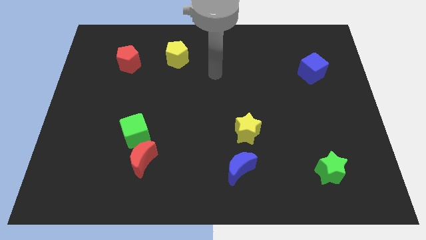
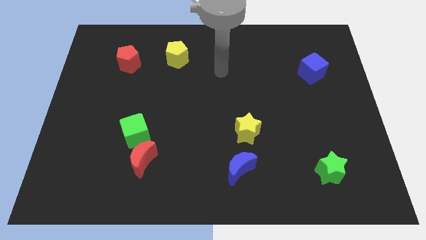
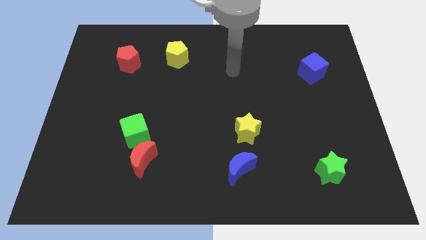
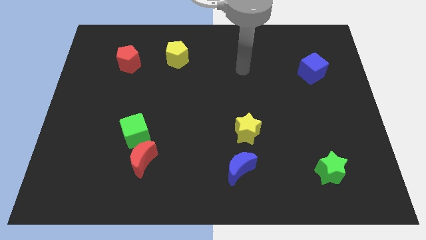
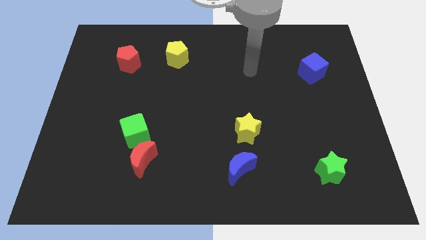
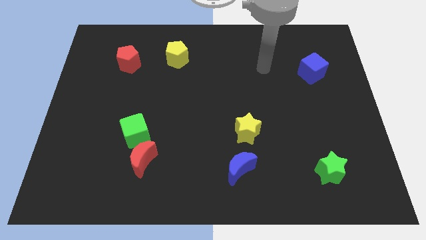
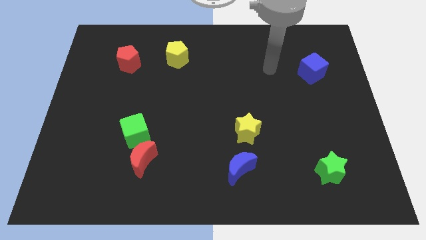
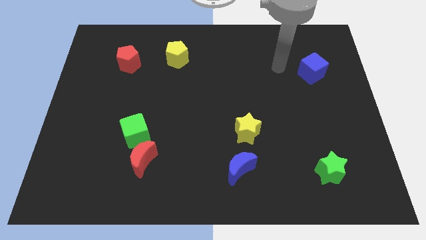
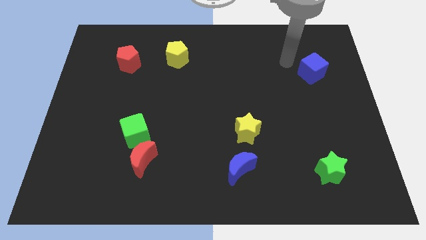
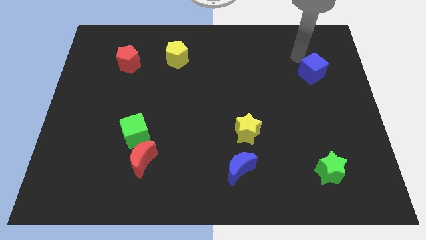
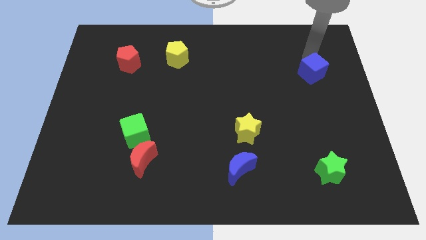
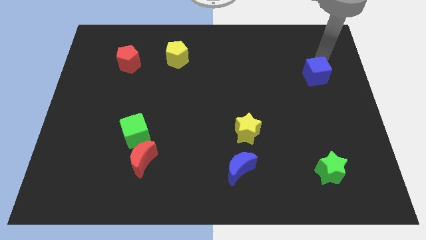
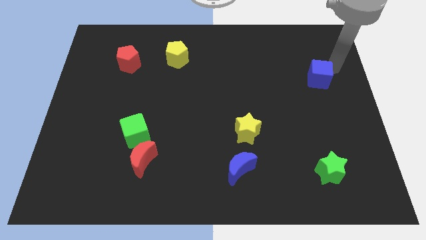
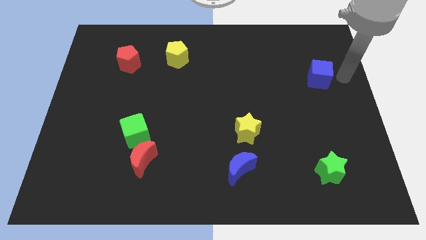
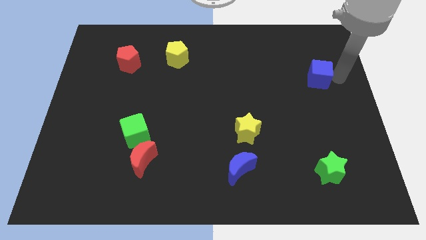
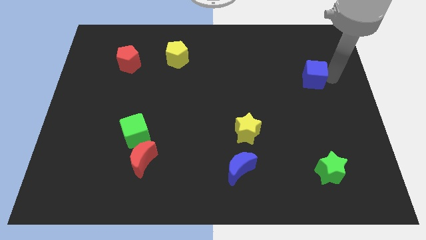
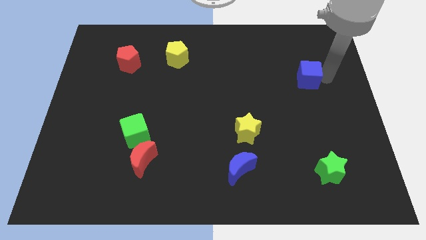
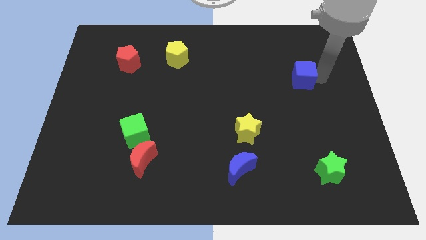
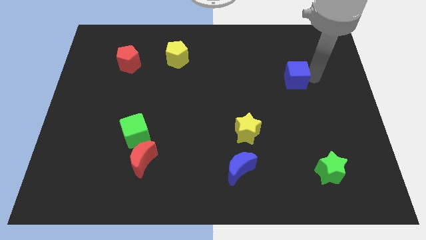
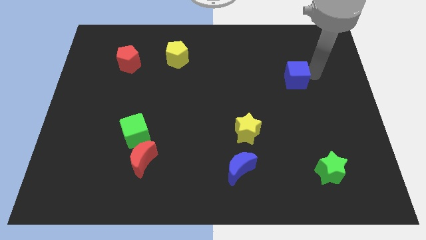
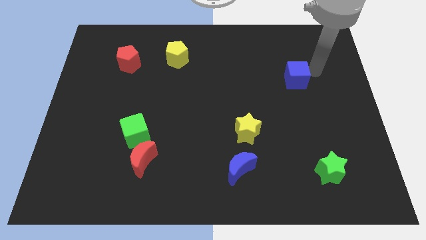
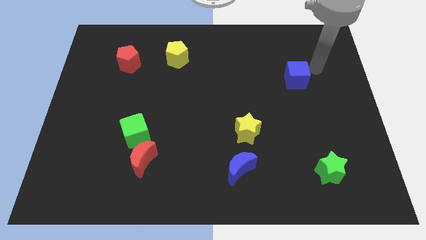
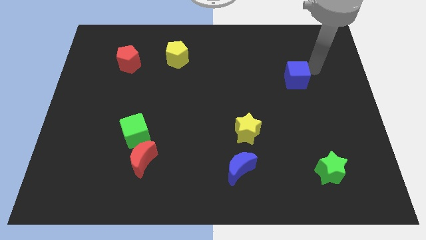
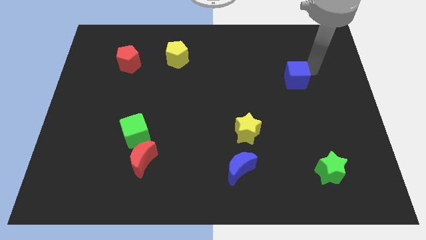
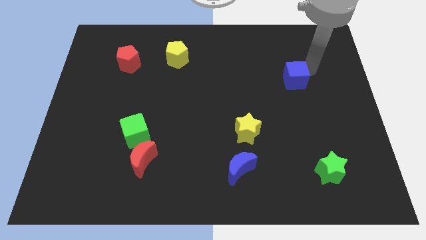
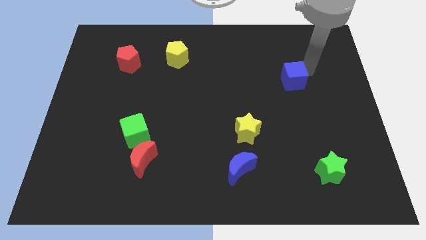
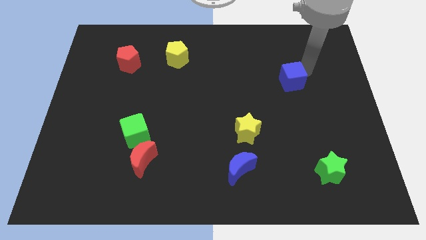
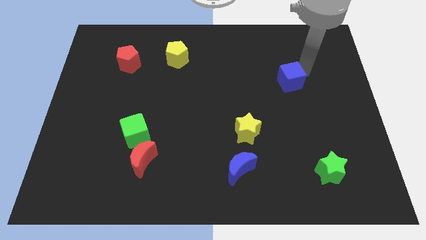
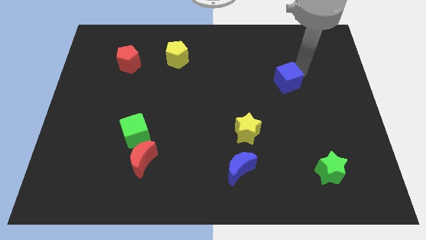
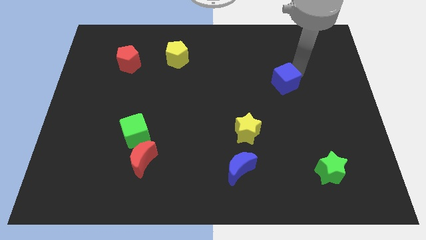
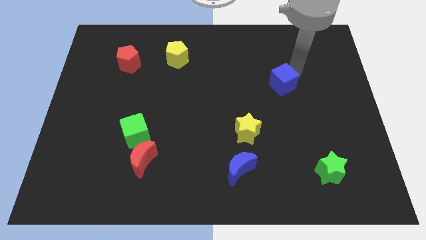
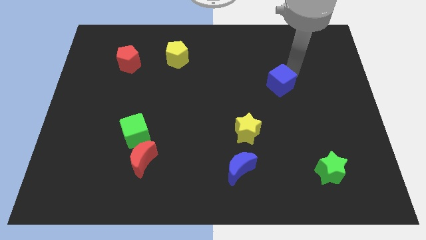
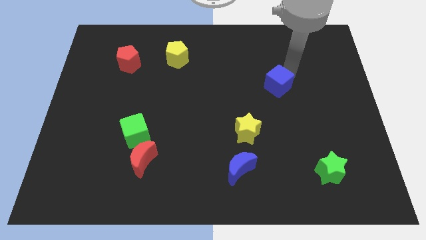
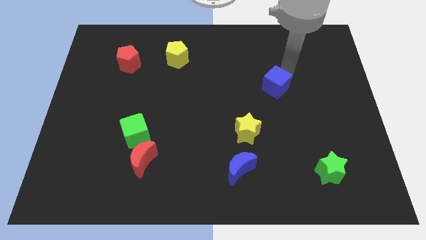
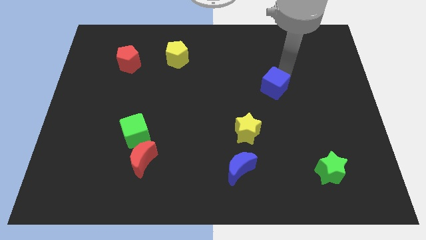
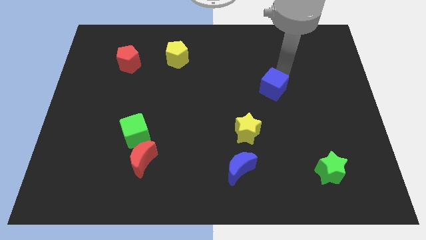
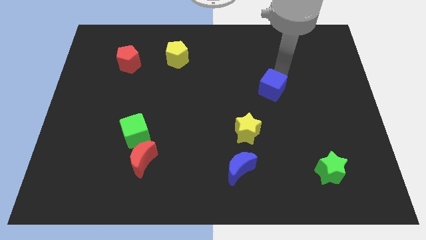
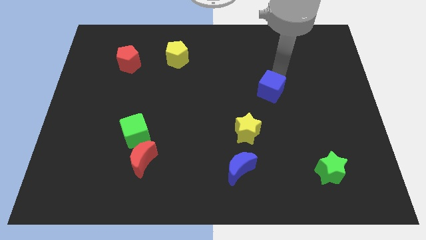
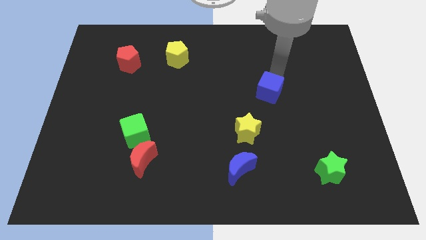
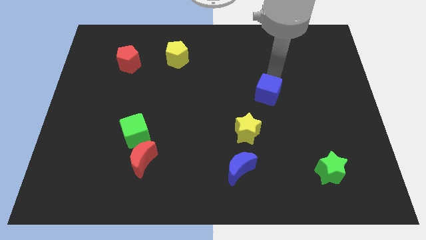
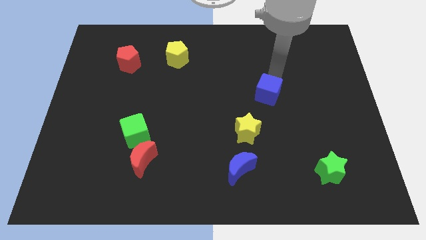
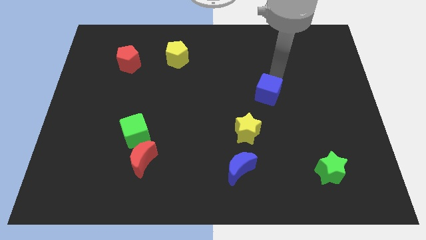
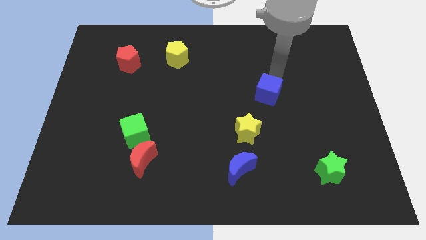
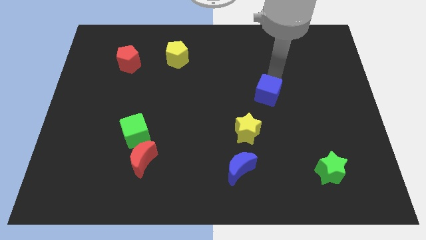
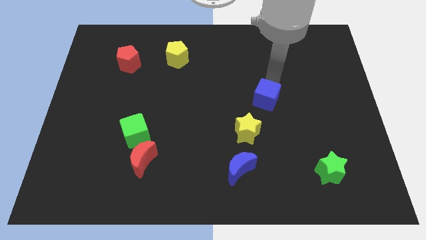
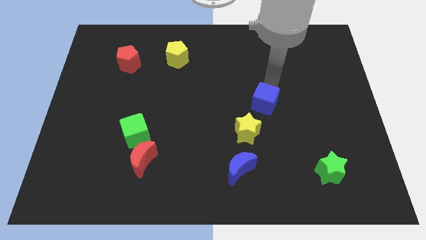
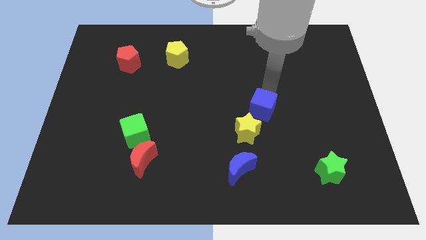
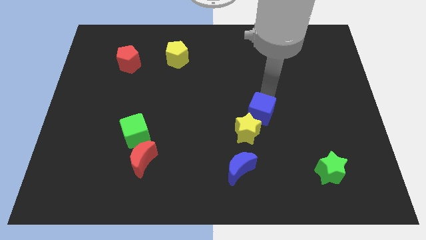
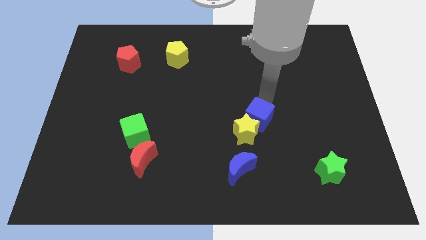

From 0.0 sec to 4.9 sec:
put the blue cube towards the yellow star

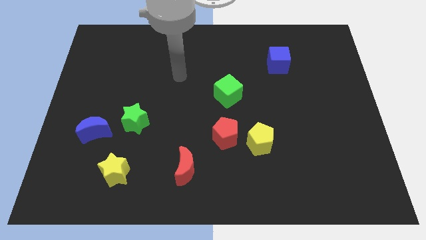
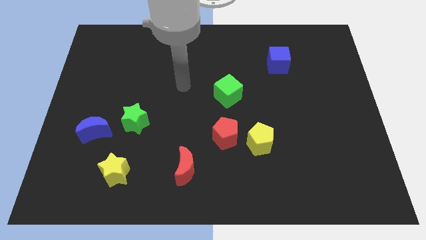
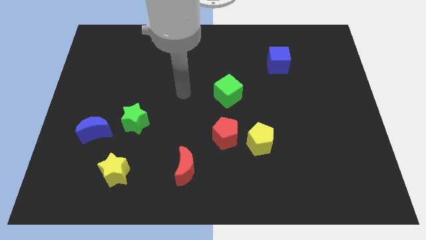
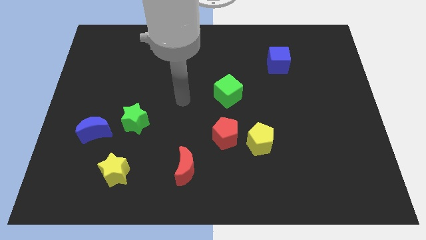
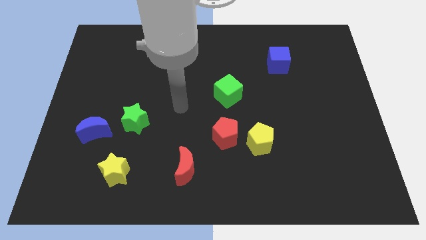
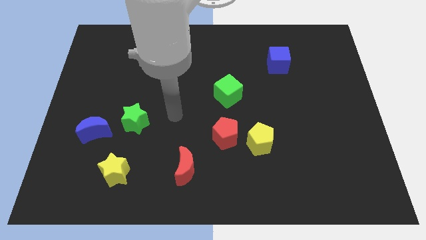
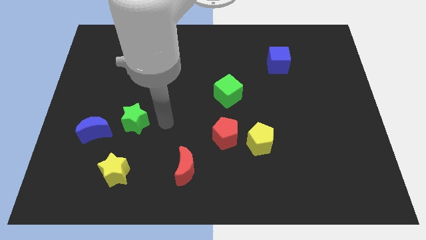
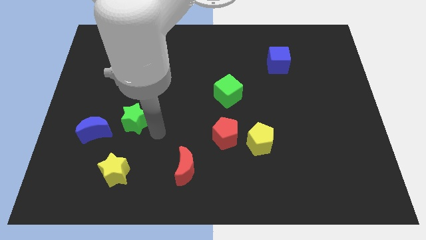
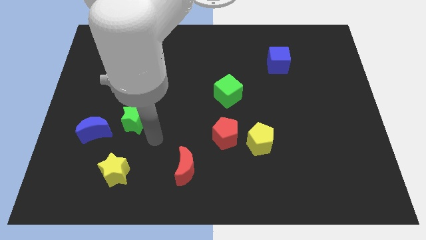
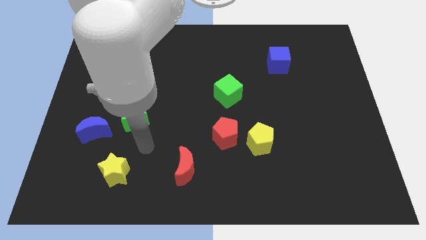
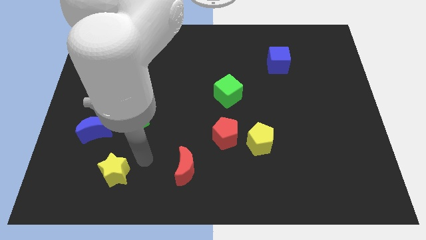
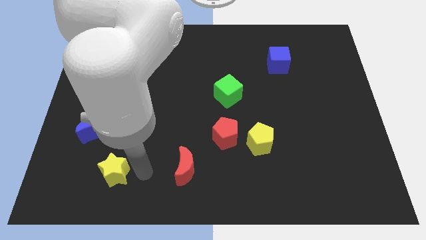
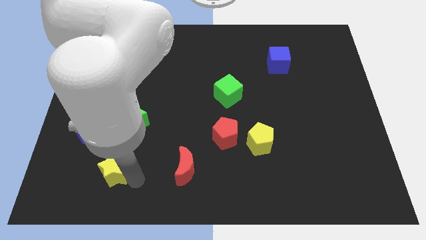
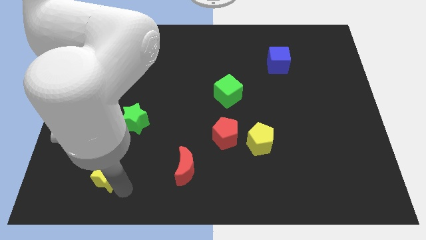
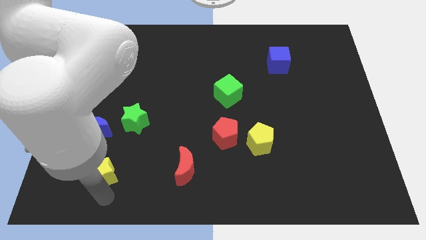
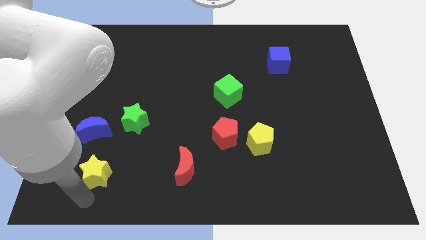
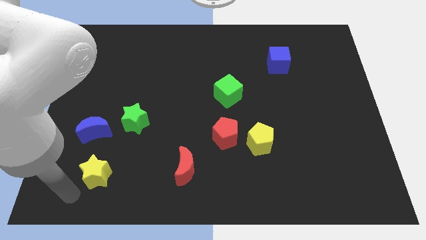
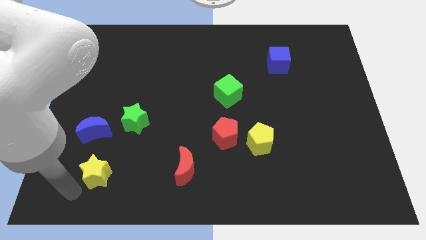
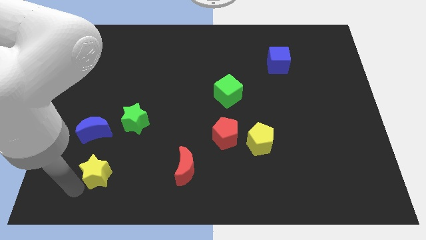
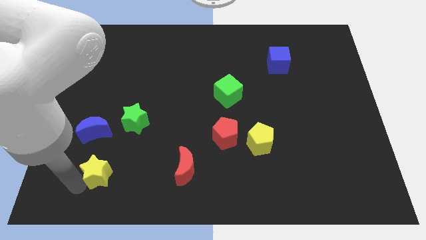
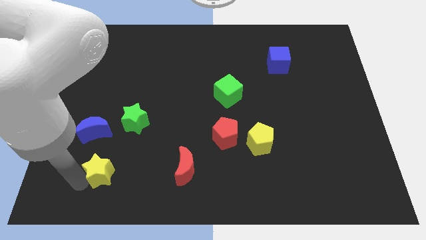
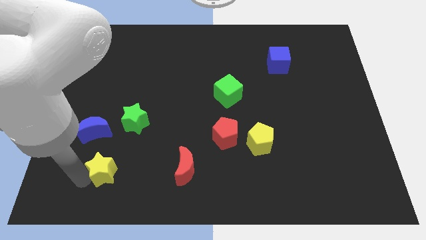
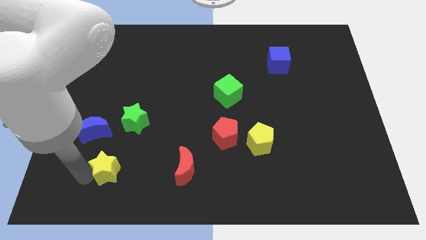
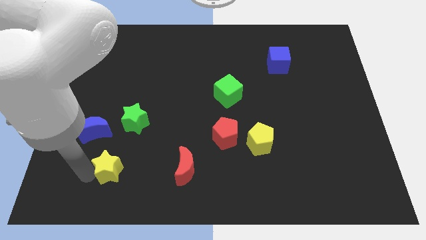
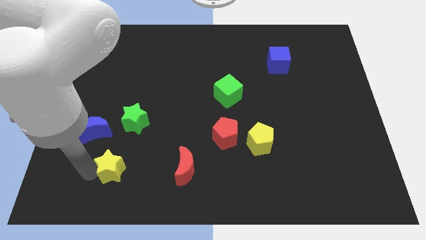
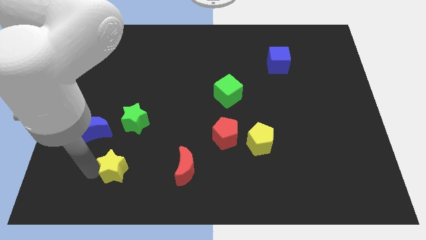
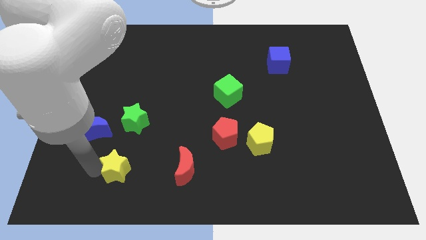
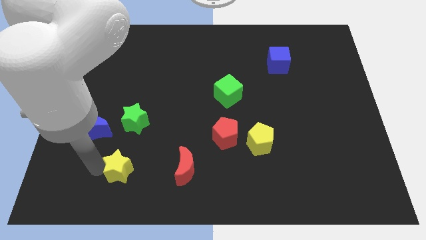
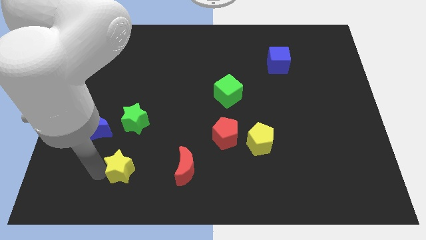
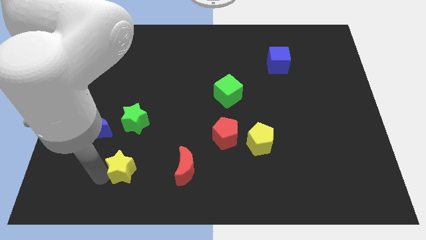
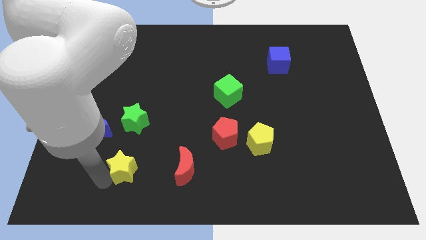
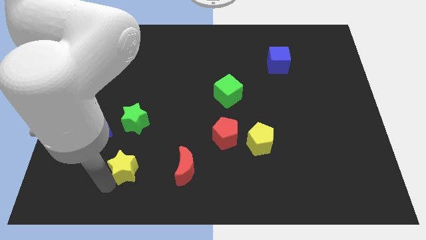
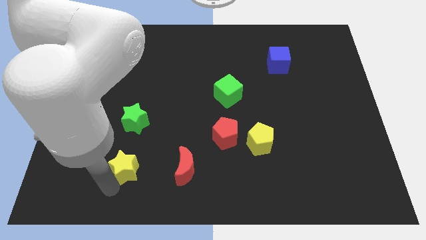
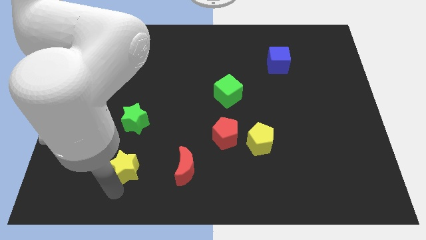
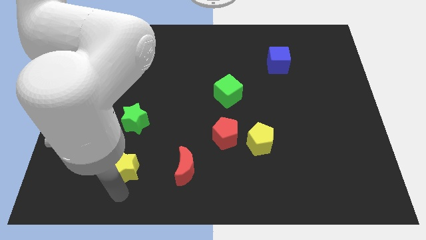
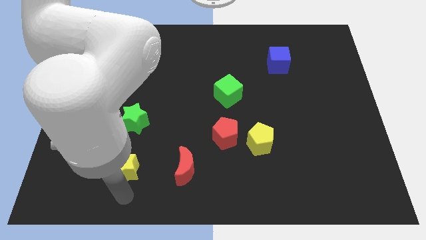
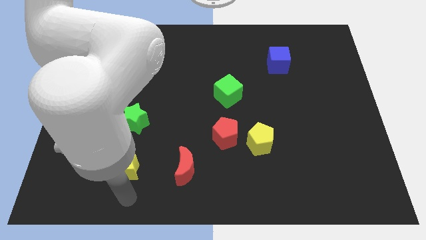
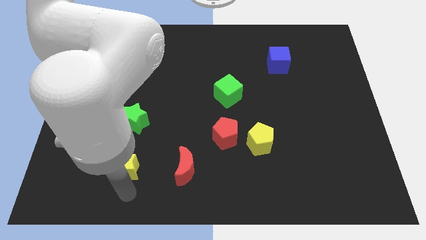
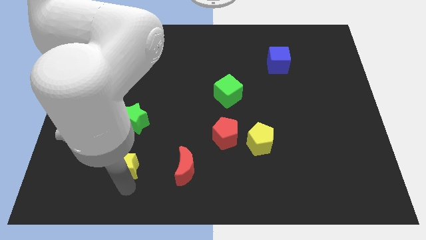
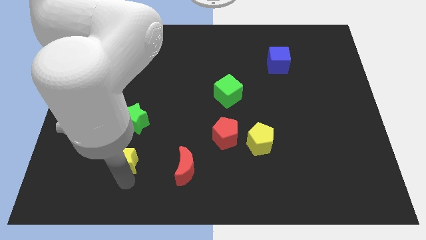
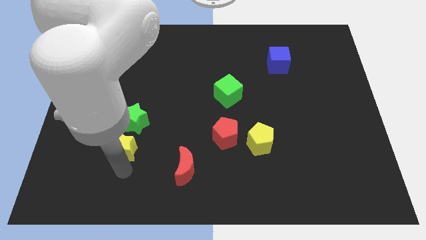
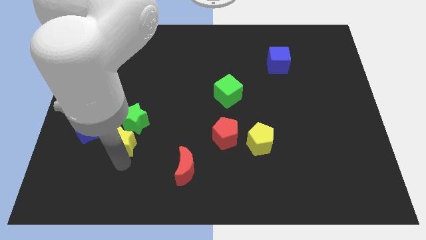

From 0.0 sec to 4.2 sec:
push the yellow star close to the green star
